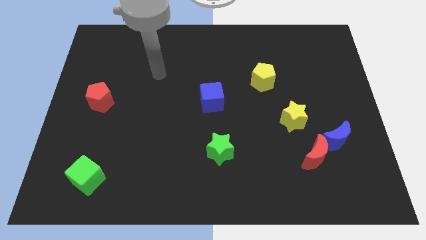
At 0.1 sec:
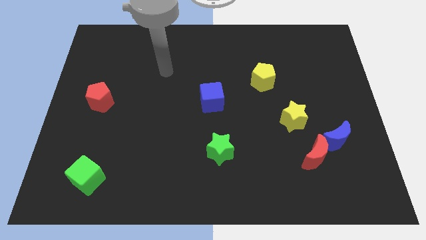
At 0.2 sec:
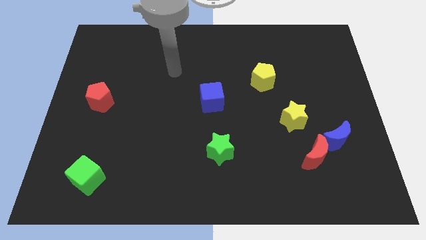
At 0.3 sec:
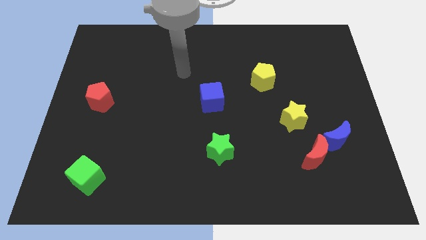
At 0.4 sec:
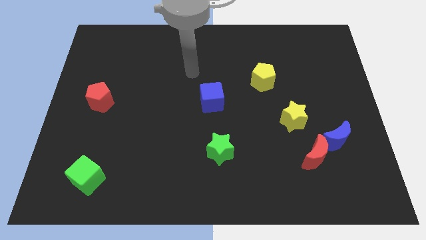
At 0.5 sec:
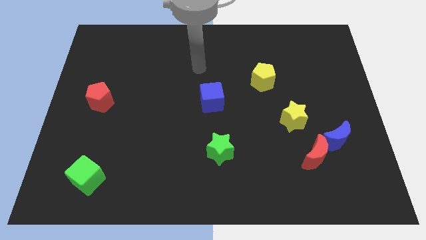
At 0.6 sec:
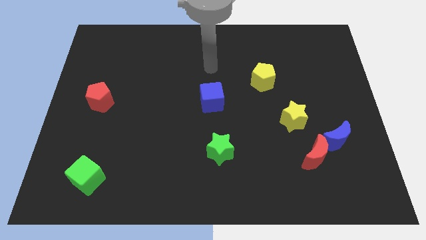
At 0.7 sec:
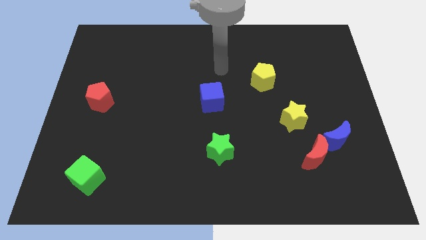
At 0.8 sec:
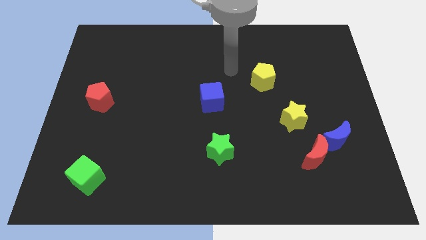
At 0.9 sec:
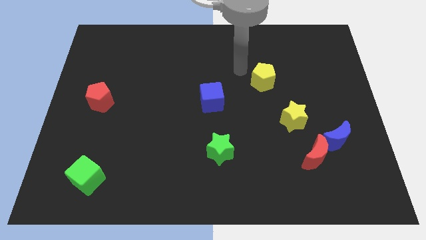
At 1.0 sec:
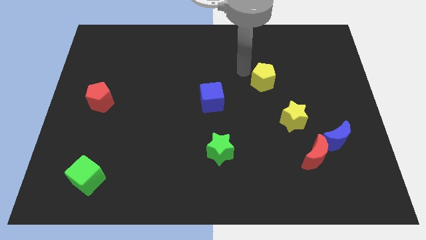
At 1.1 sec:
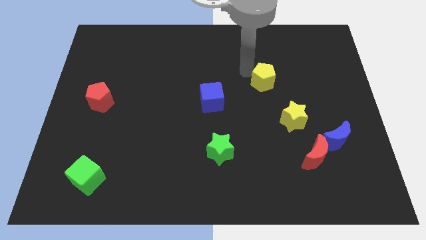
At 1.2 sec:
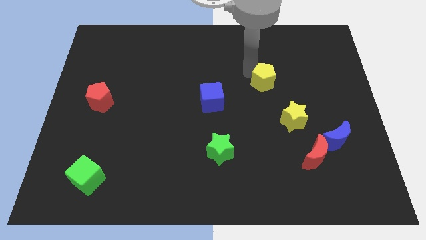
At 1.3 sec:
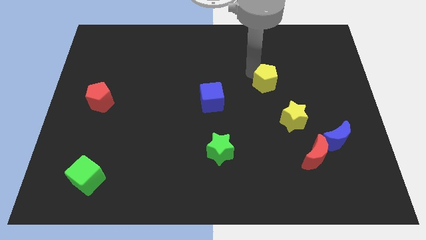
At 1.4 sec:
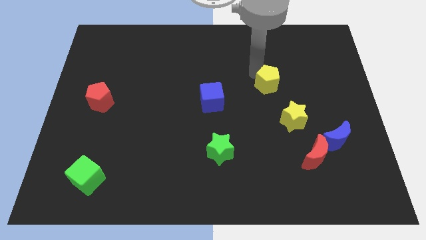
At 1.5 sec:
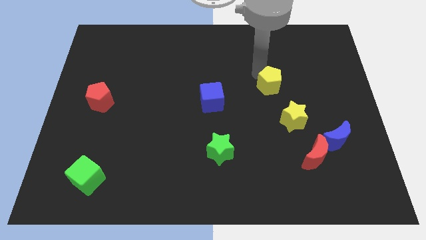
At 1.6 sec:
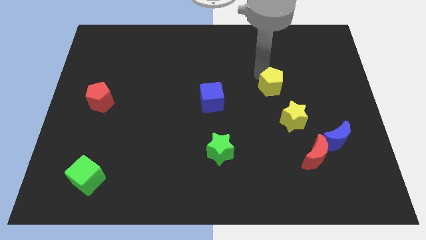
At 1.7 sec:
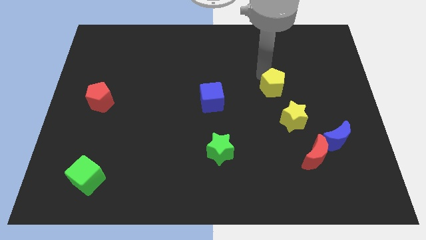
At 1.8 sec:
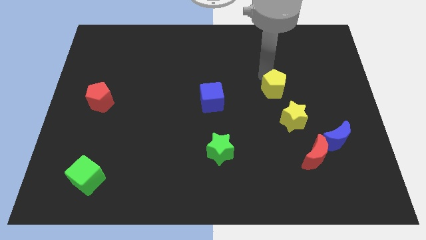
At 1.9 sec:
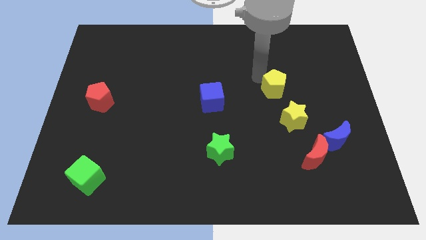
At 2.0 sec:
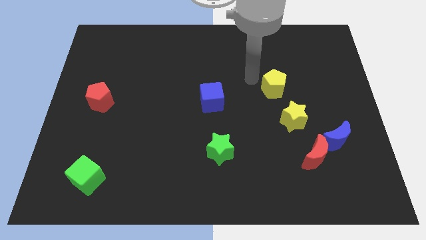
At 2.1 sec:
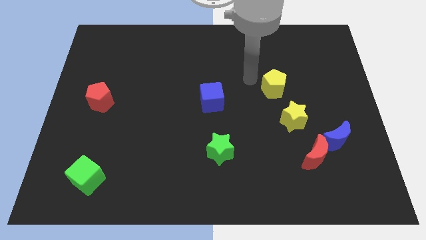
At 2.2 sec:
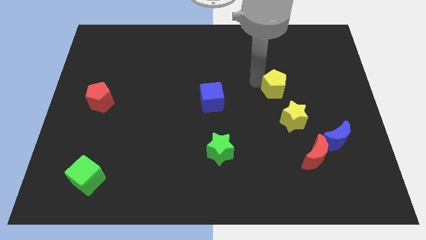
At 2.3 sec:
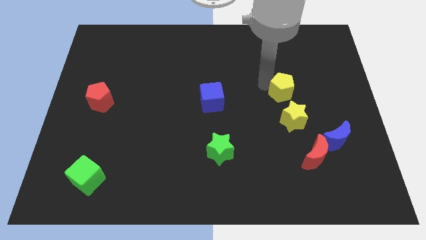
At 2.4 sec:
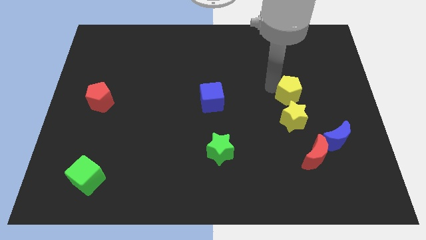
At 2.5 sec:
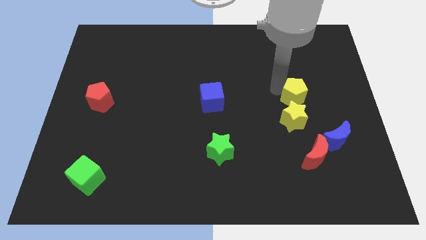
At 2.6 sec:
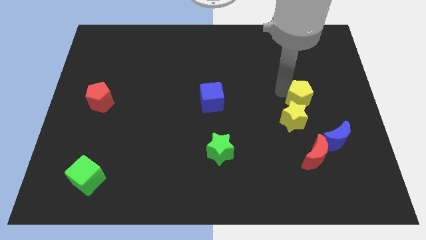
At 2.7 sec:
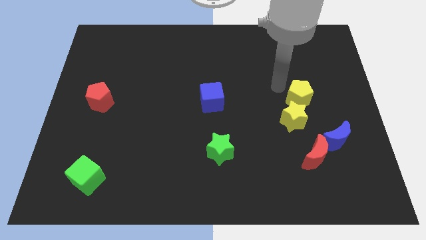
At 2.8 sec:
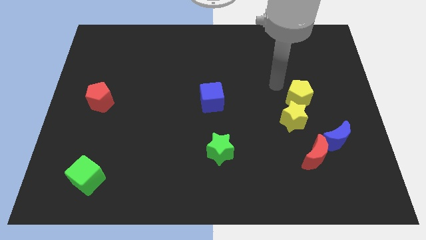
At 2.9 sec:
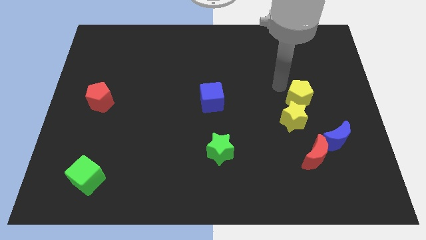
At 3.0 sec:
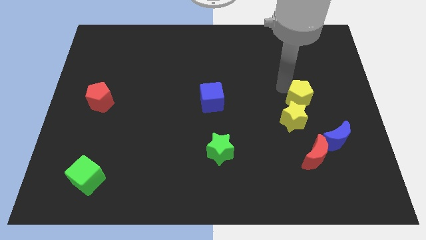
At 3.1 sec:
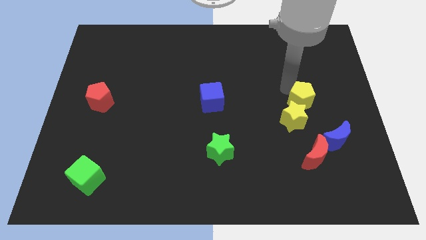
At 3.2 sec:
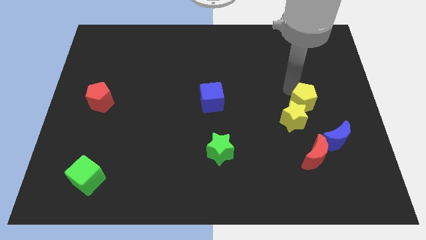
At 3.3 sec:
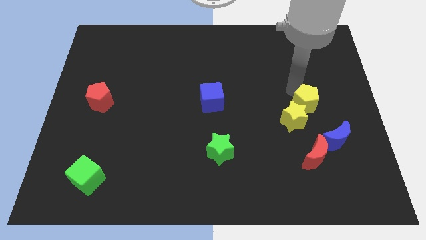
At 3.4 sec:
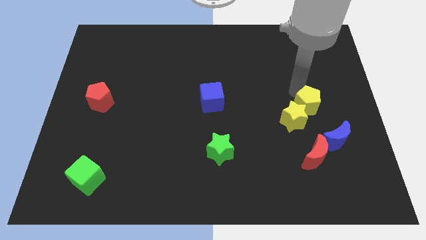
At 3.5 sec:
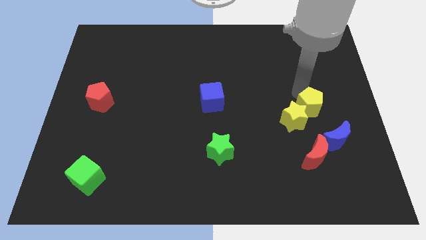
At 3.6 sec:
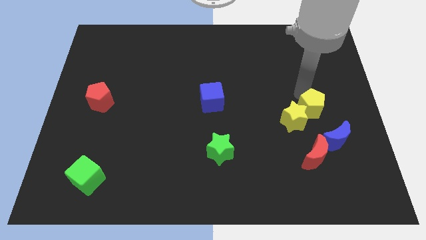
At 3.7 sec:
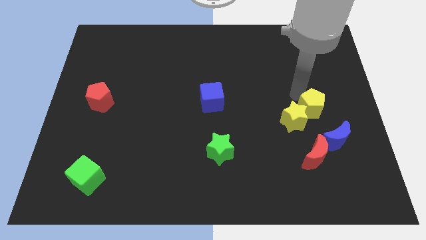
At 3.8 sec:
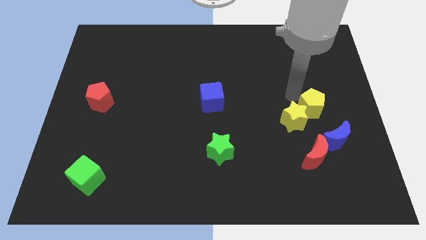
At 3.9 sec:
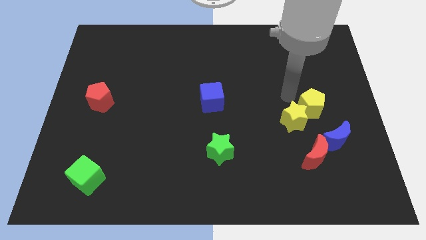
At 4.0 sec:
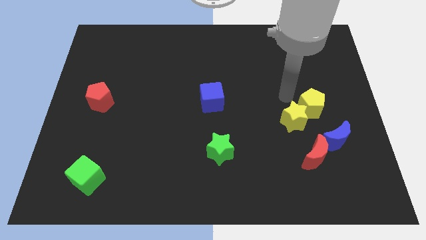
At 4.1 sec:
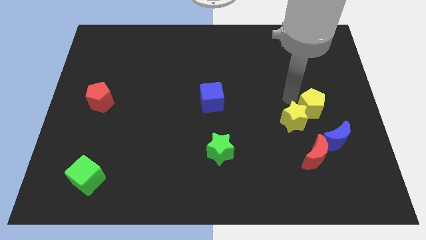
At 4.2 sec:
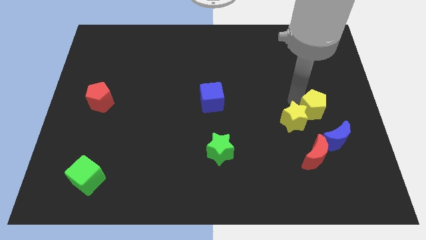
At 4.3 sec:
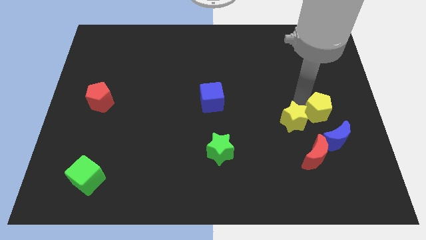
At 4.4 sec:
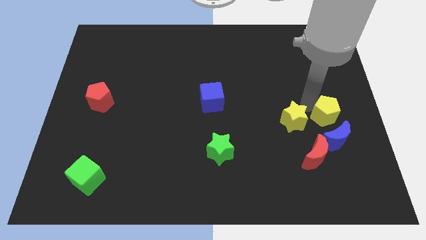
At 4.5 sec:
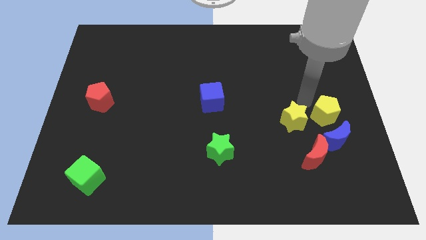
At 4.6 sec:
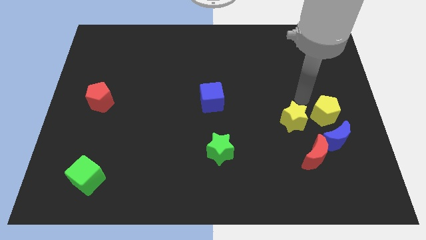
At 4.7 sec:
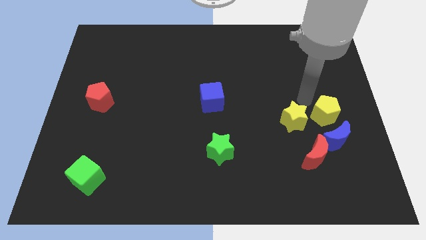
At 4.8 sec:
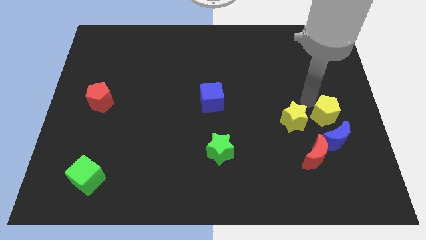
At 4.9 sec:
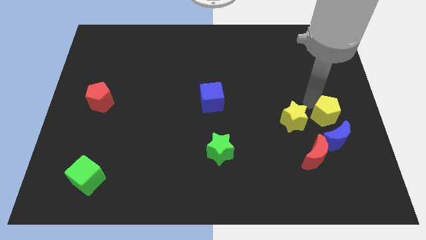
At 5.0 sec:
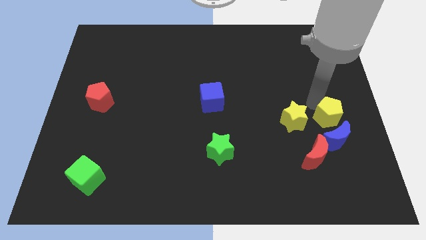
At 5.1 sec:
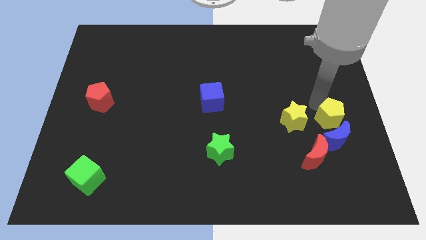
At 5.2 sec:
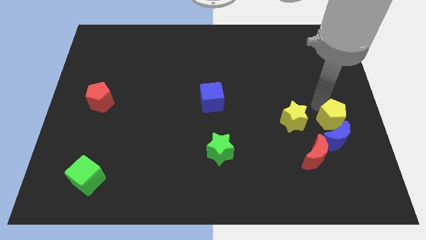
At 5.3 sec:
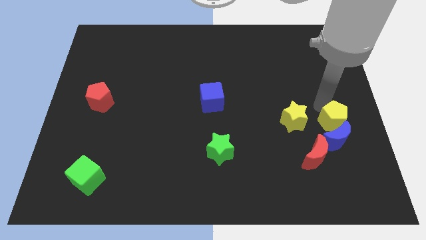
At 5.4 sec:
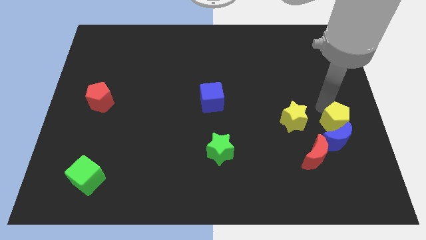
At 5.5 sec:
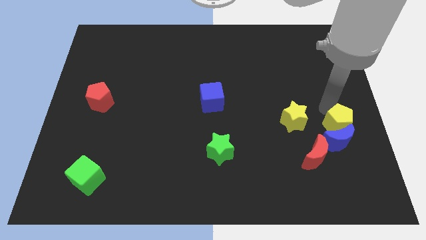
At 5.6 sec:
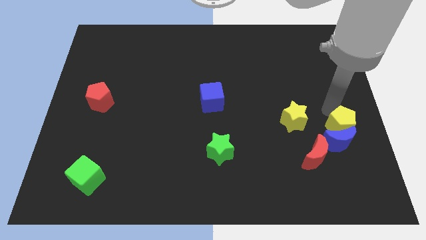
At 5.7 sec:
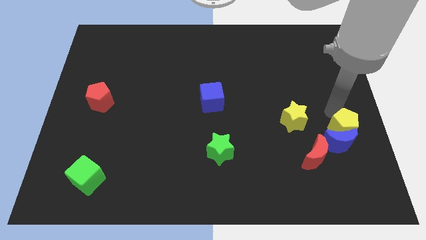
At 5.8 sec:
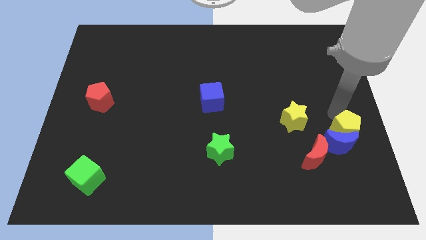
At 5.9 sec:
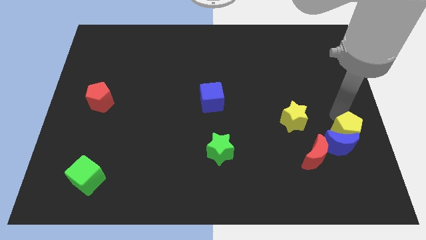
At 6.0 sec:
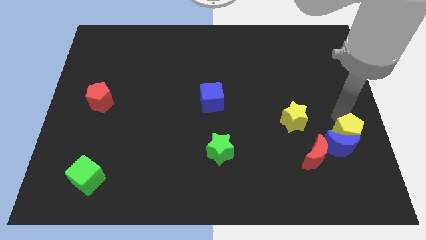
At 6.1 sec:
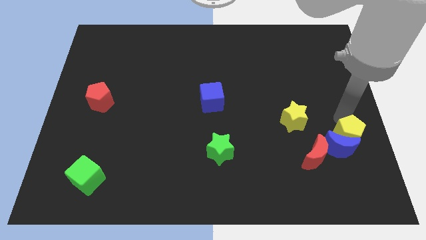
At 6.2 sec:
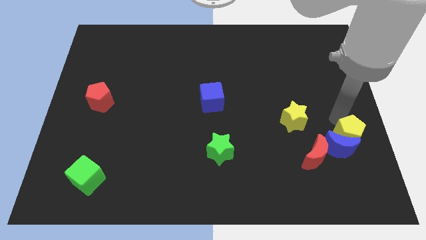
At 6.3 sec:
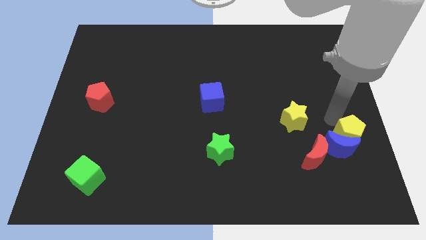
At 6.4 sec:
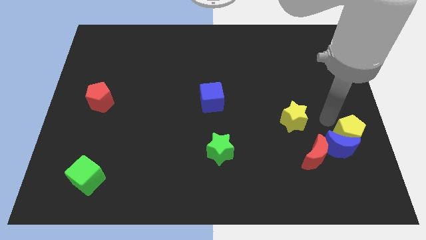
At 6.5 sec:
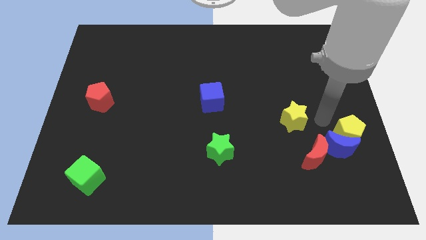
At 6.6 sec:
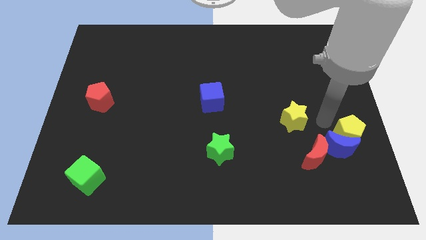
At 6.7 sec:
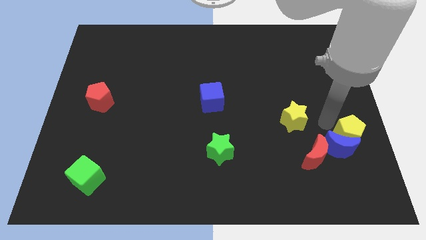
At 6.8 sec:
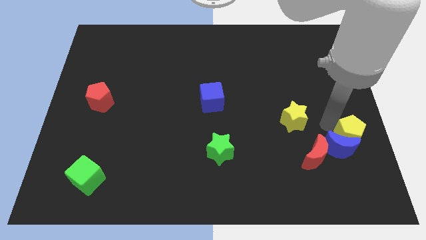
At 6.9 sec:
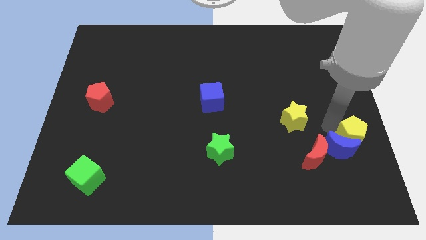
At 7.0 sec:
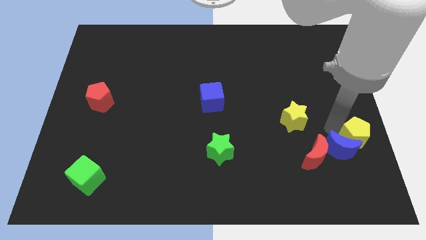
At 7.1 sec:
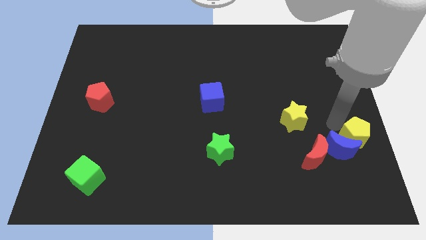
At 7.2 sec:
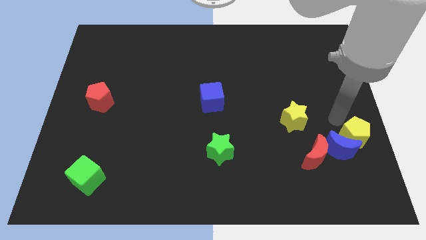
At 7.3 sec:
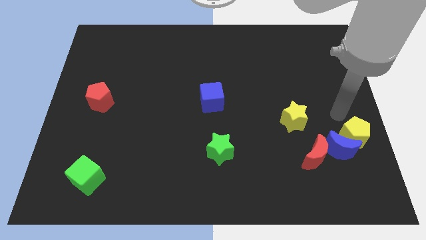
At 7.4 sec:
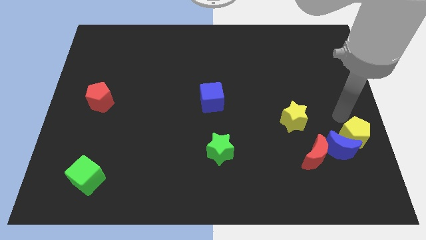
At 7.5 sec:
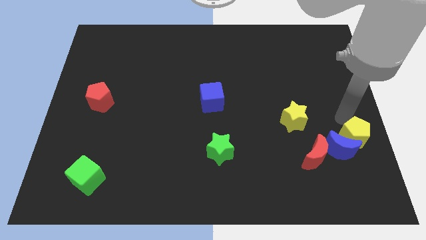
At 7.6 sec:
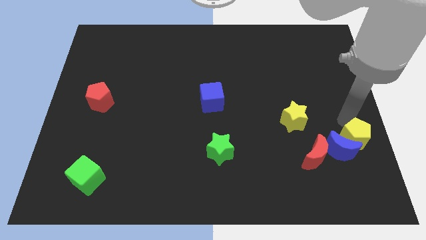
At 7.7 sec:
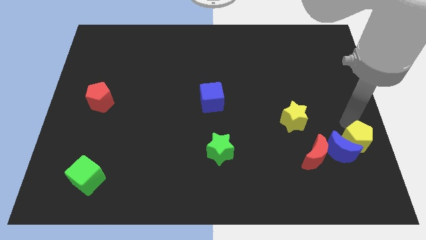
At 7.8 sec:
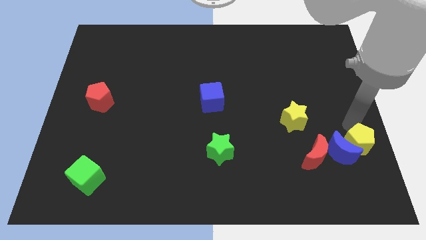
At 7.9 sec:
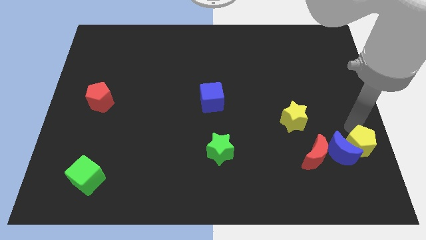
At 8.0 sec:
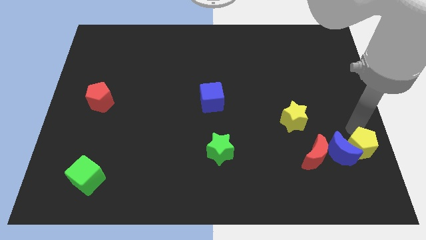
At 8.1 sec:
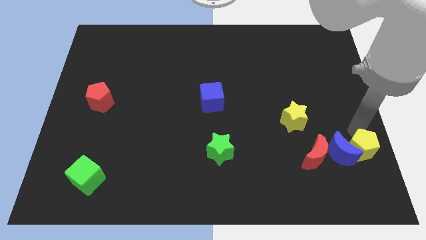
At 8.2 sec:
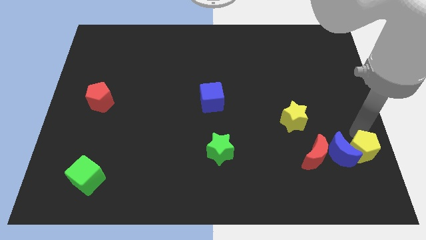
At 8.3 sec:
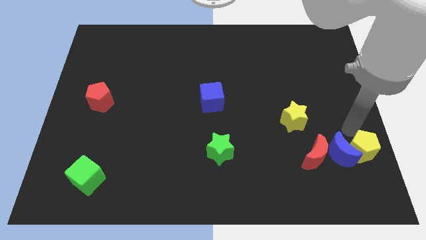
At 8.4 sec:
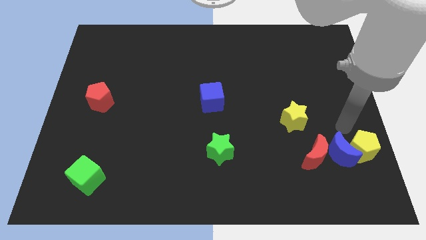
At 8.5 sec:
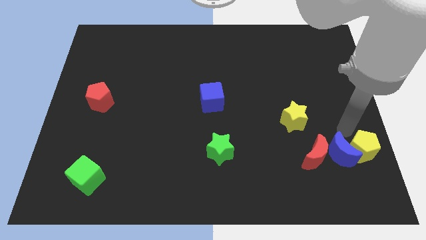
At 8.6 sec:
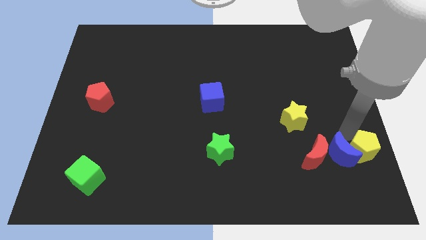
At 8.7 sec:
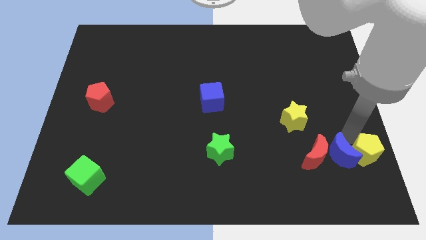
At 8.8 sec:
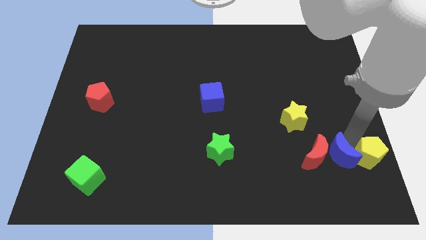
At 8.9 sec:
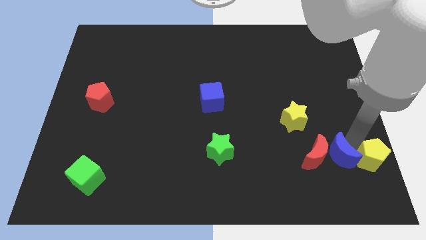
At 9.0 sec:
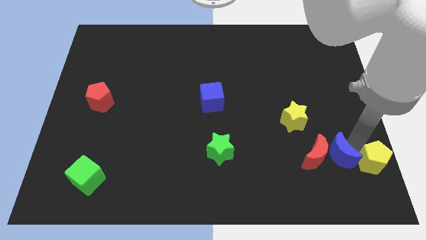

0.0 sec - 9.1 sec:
push the yellow pentagon to the bottom right
